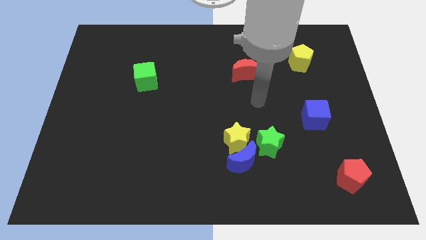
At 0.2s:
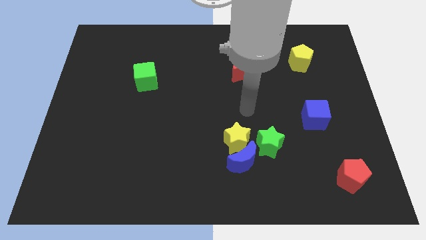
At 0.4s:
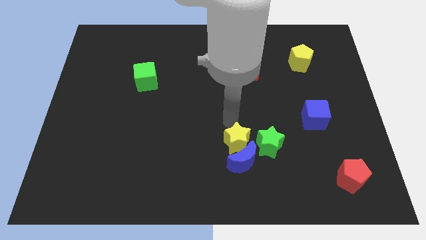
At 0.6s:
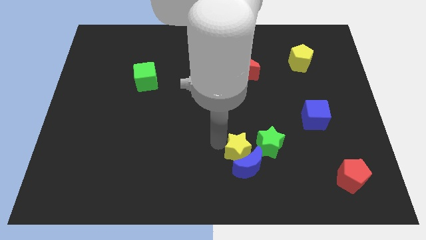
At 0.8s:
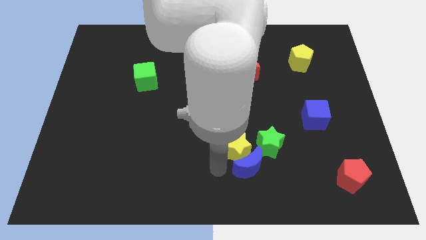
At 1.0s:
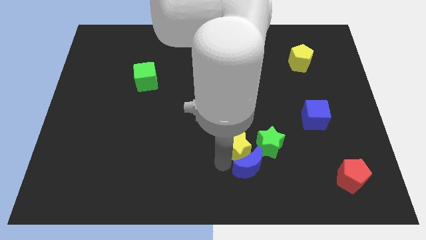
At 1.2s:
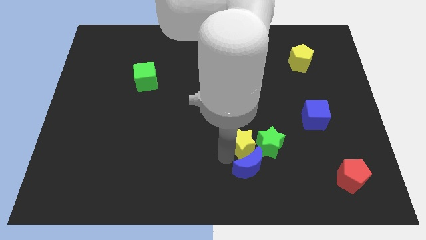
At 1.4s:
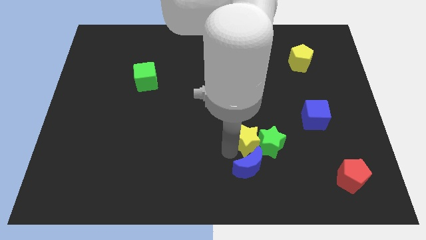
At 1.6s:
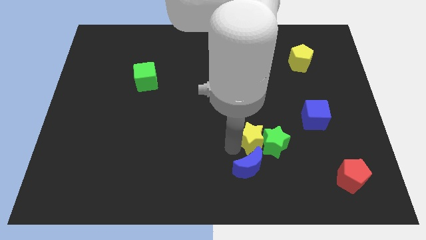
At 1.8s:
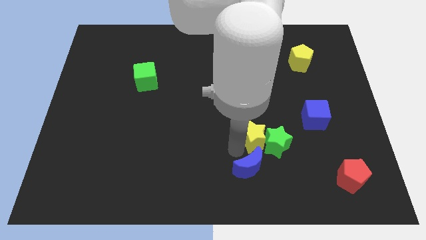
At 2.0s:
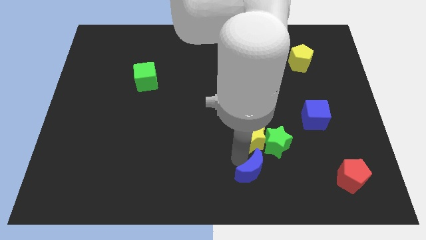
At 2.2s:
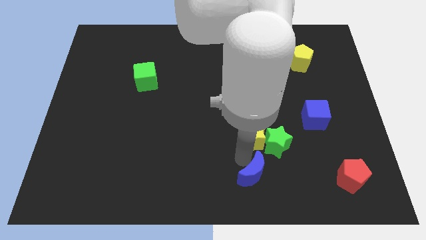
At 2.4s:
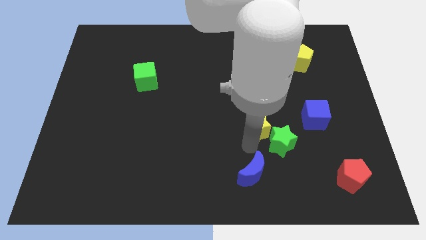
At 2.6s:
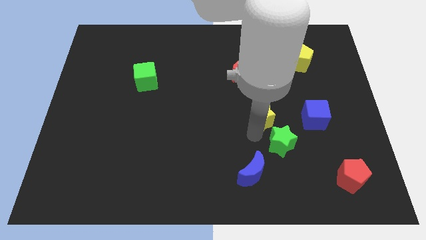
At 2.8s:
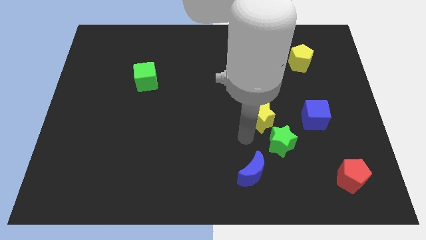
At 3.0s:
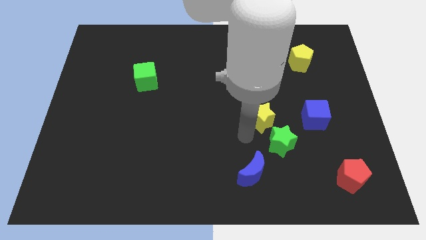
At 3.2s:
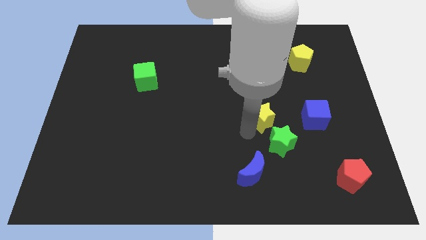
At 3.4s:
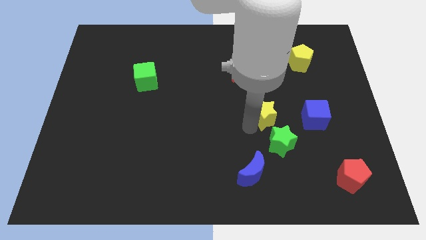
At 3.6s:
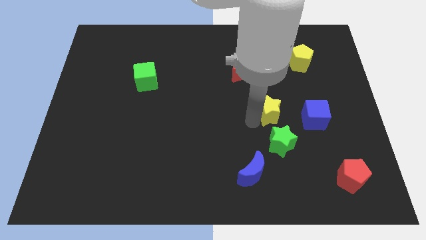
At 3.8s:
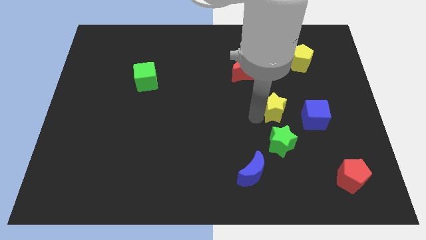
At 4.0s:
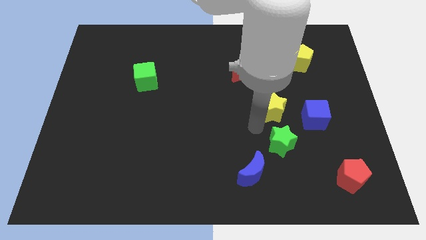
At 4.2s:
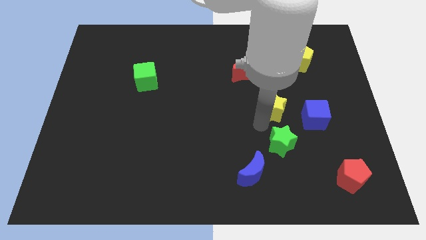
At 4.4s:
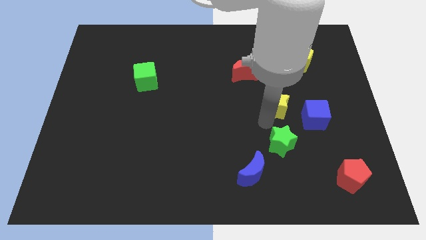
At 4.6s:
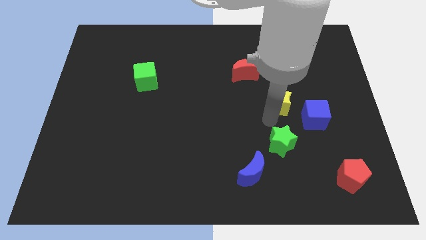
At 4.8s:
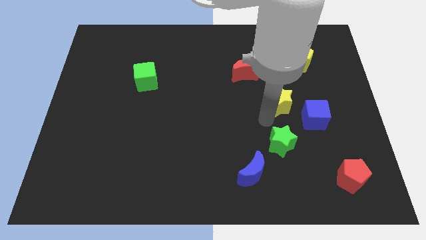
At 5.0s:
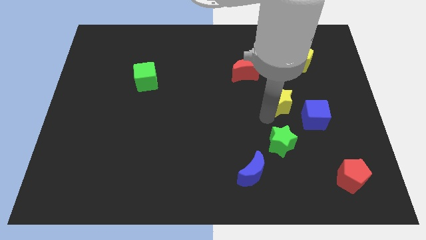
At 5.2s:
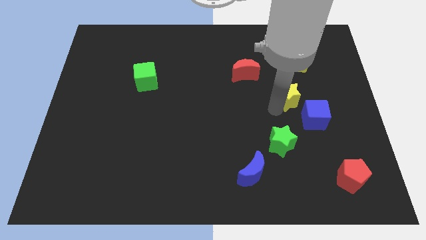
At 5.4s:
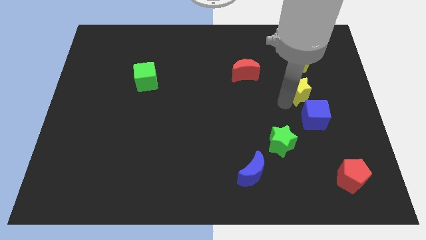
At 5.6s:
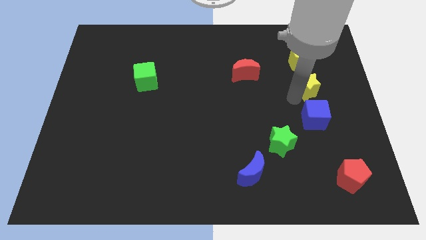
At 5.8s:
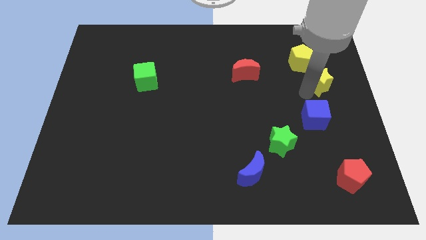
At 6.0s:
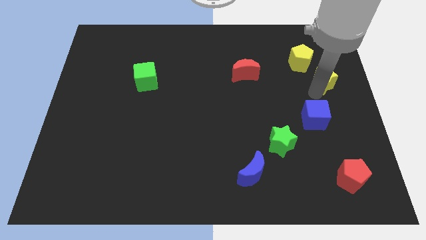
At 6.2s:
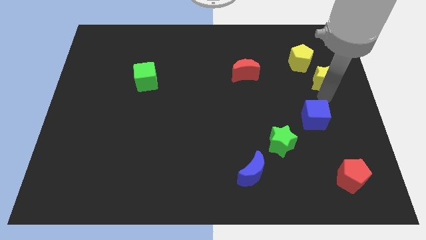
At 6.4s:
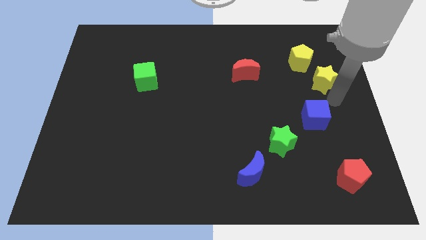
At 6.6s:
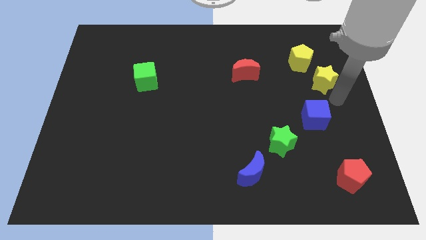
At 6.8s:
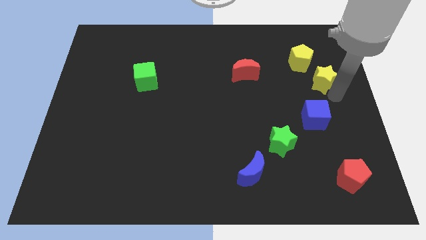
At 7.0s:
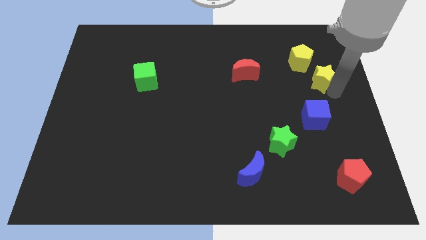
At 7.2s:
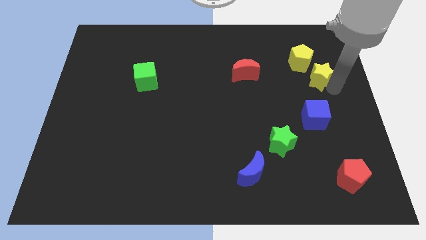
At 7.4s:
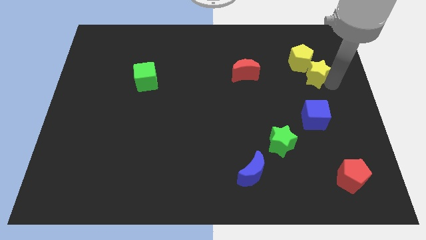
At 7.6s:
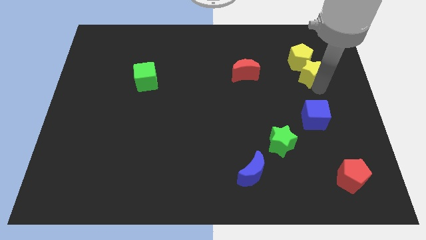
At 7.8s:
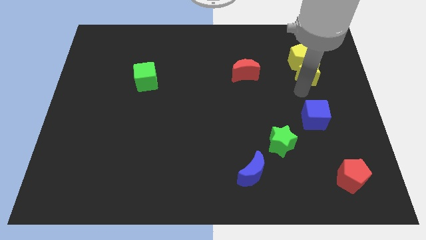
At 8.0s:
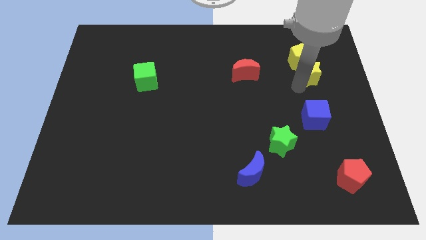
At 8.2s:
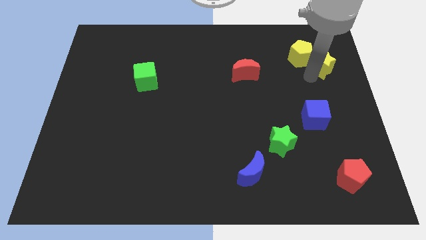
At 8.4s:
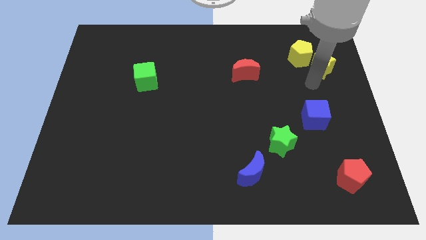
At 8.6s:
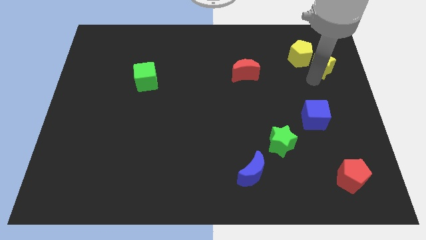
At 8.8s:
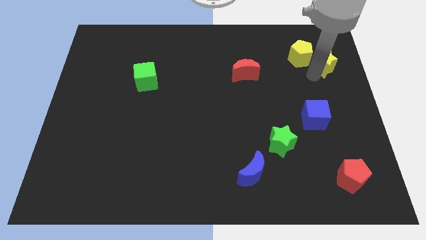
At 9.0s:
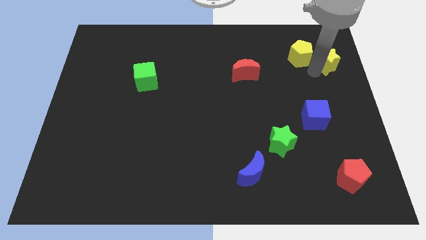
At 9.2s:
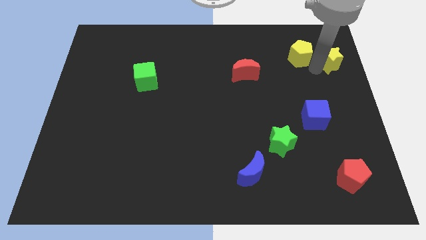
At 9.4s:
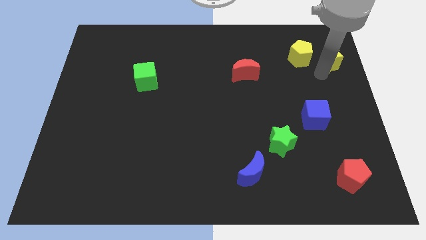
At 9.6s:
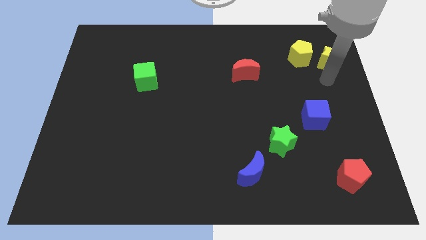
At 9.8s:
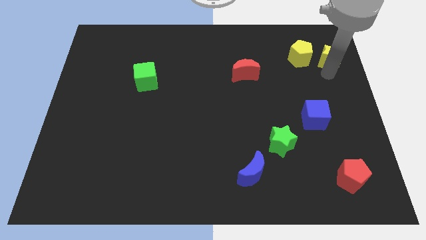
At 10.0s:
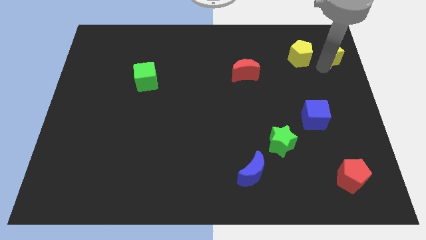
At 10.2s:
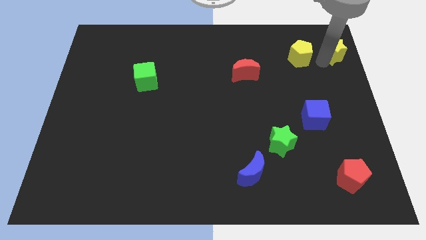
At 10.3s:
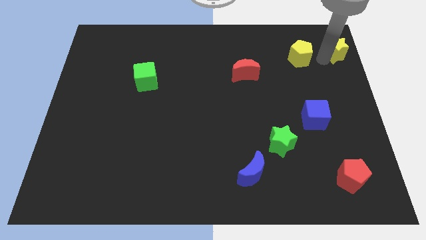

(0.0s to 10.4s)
move the yellow star to the top right of the board

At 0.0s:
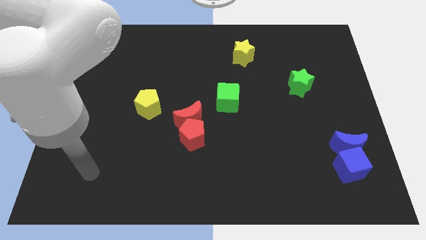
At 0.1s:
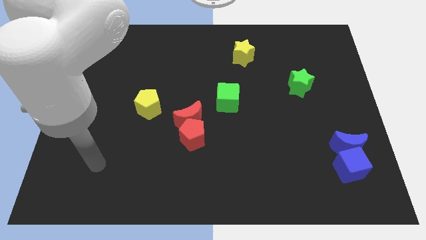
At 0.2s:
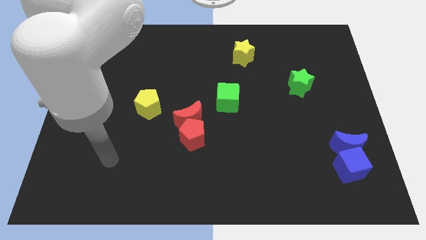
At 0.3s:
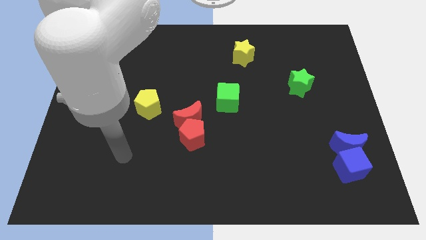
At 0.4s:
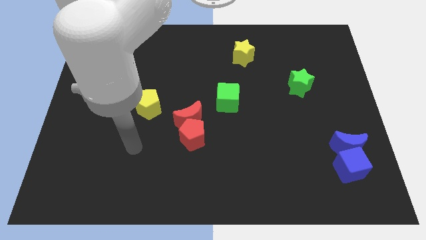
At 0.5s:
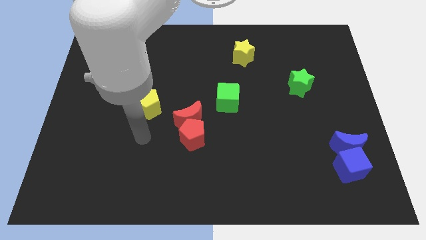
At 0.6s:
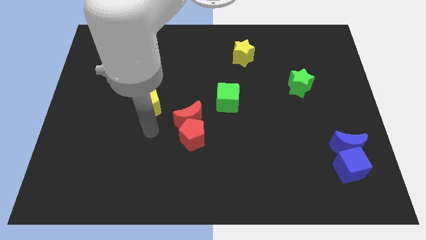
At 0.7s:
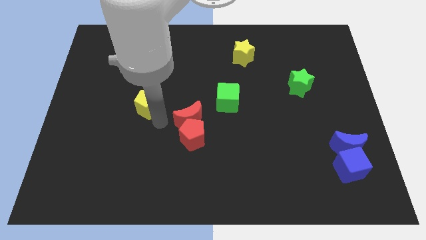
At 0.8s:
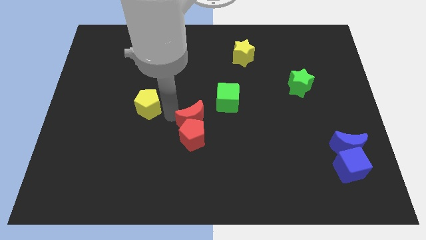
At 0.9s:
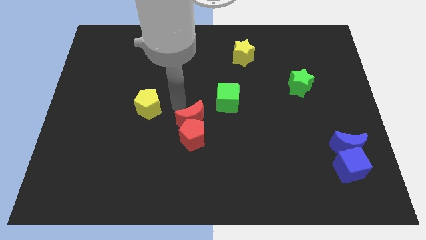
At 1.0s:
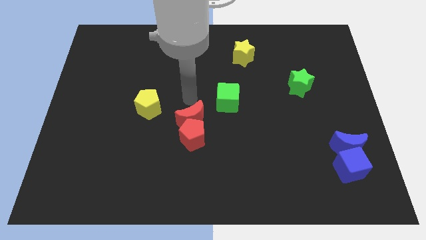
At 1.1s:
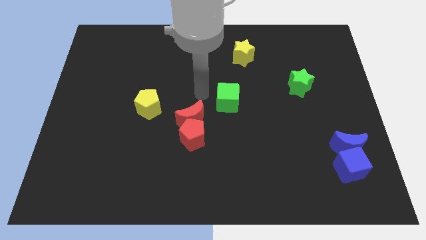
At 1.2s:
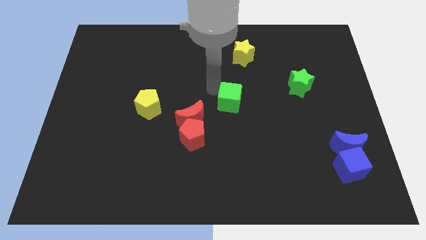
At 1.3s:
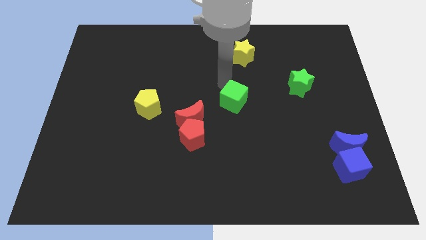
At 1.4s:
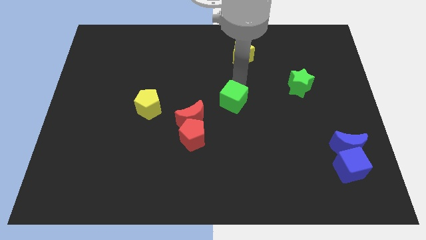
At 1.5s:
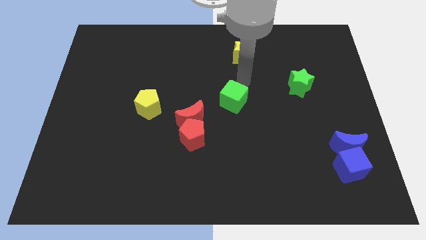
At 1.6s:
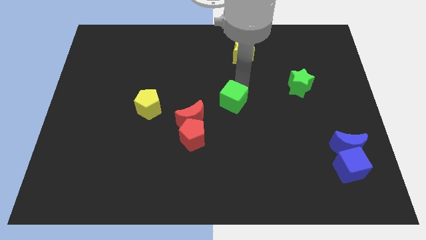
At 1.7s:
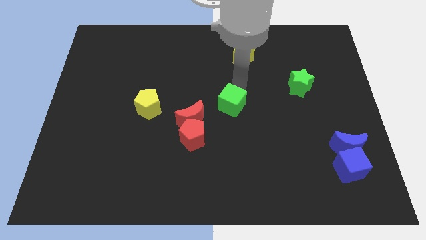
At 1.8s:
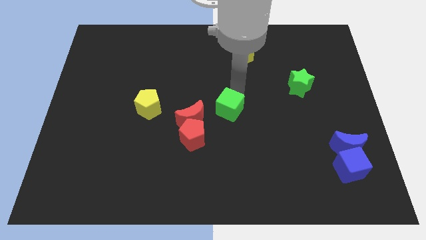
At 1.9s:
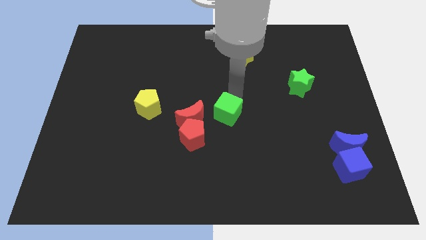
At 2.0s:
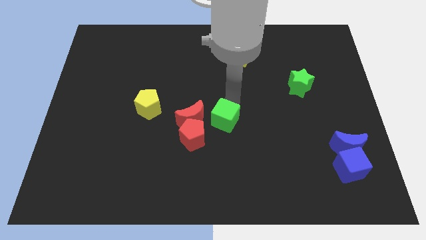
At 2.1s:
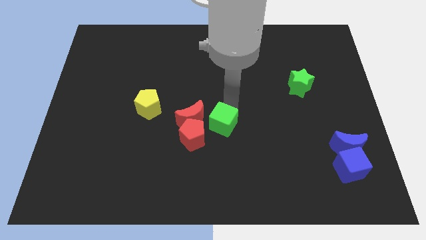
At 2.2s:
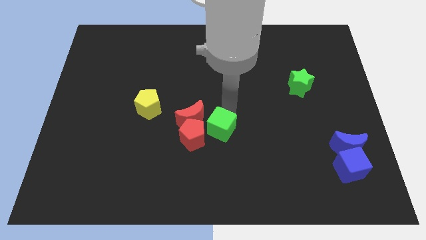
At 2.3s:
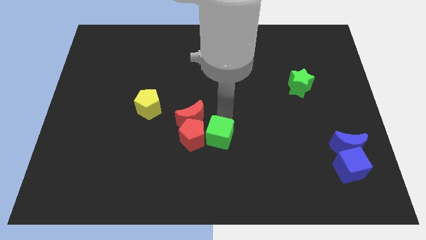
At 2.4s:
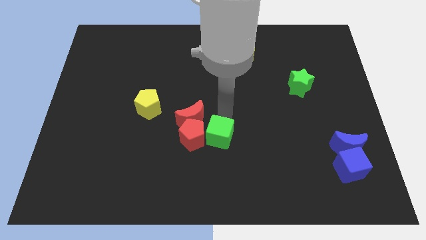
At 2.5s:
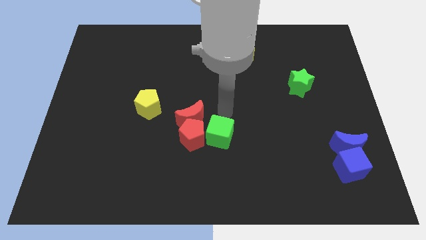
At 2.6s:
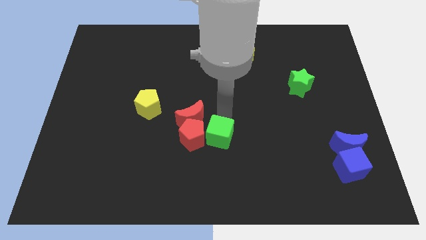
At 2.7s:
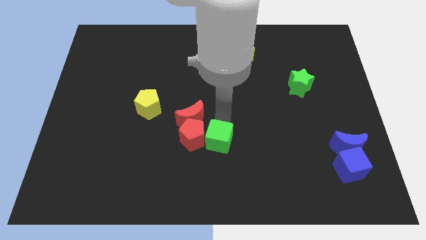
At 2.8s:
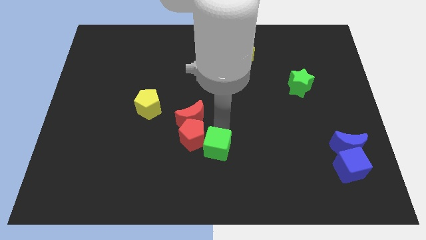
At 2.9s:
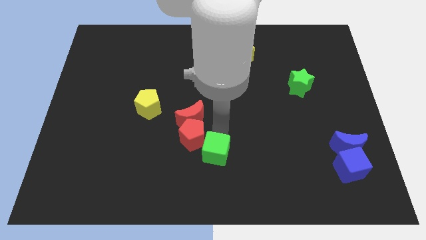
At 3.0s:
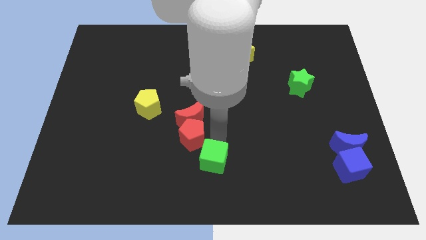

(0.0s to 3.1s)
move the green cube to the bottom

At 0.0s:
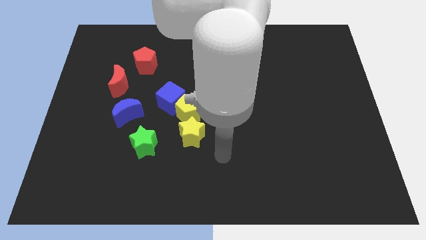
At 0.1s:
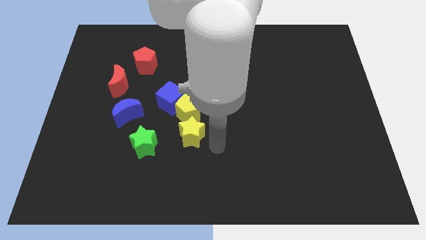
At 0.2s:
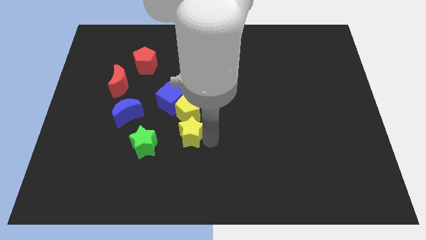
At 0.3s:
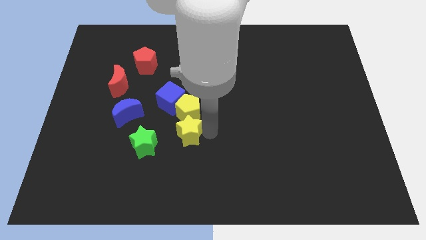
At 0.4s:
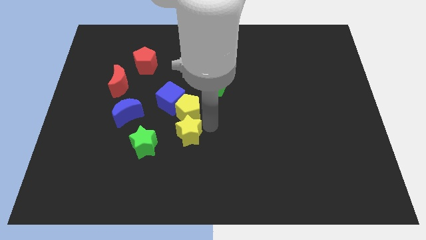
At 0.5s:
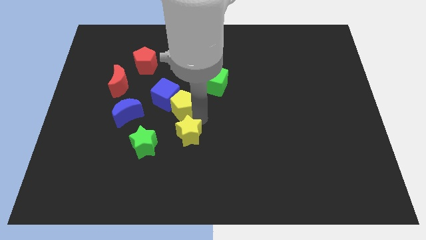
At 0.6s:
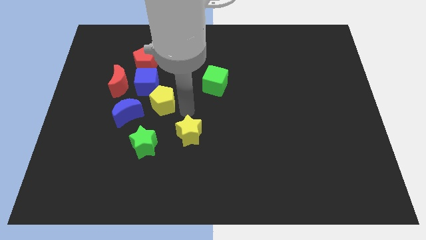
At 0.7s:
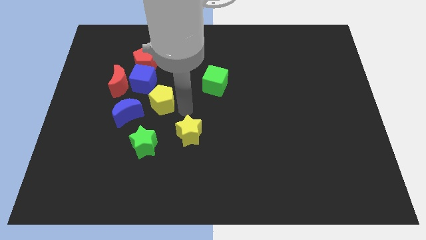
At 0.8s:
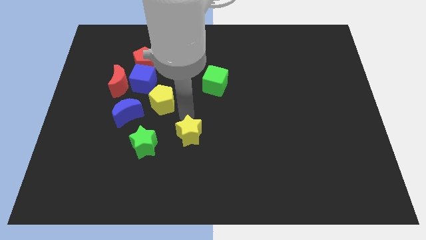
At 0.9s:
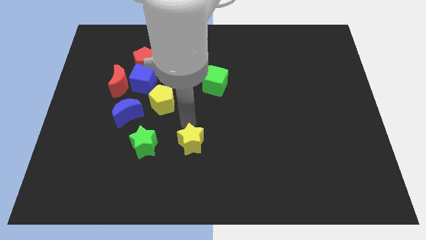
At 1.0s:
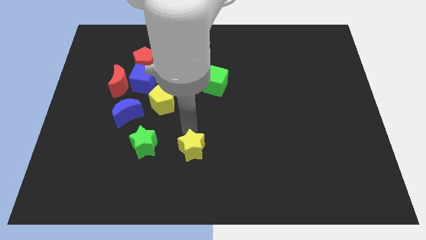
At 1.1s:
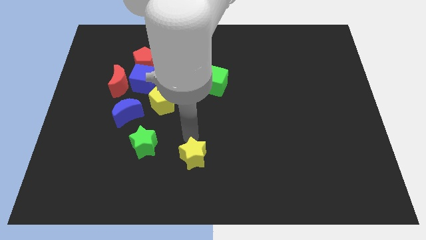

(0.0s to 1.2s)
put the yellow star to the bottom side
